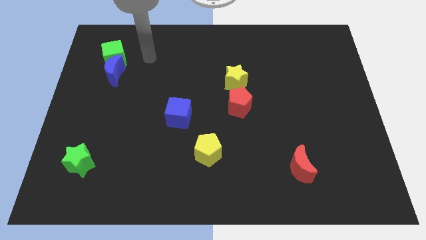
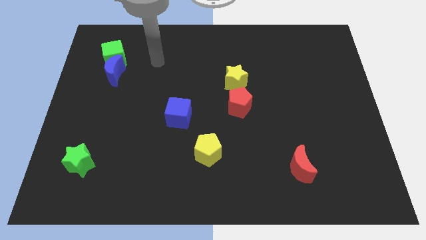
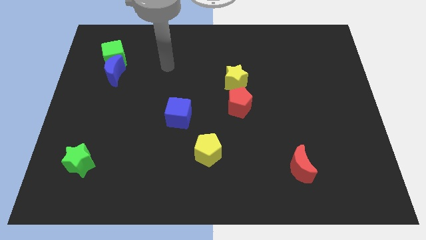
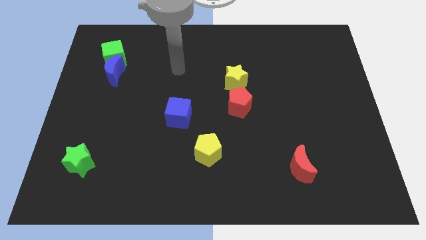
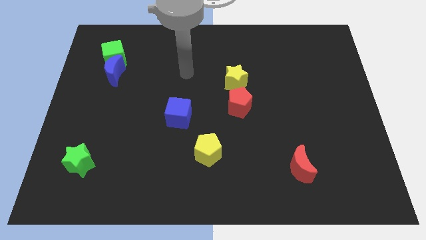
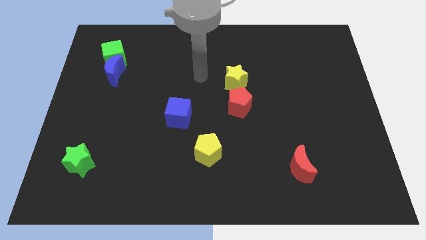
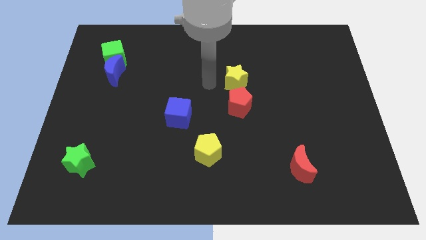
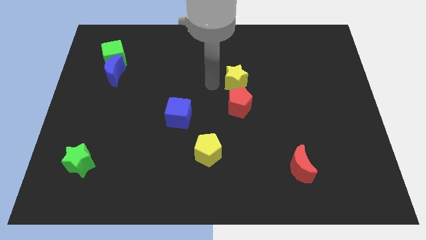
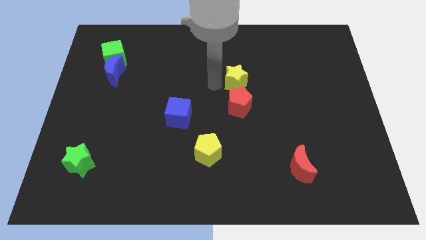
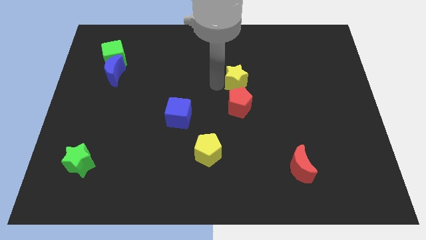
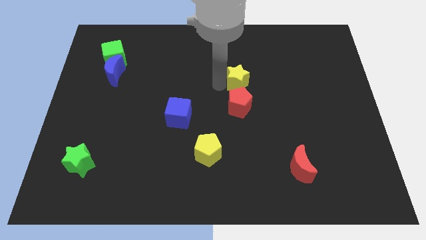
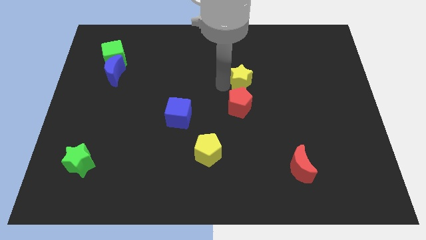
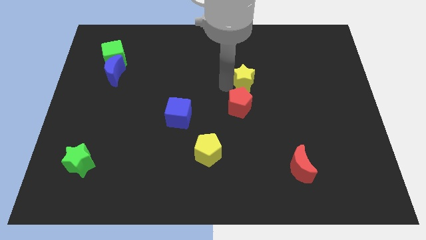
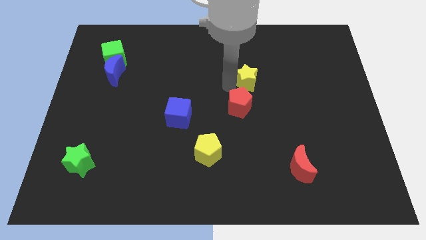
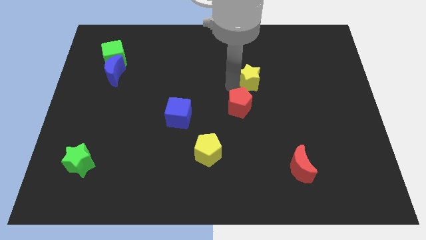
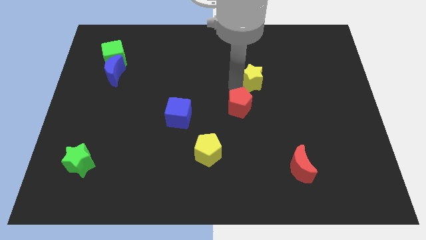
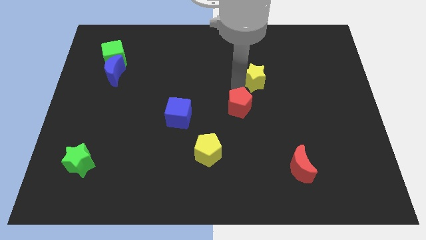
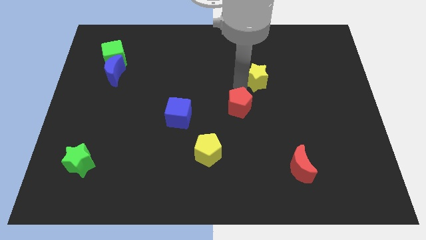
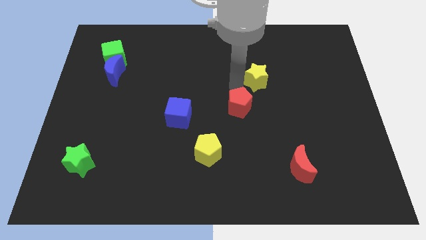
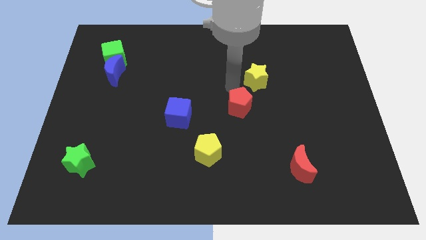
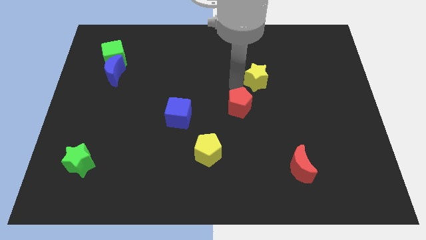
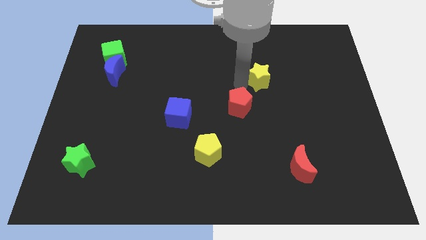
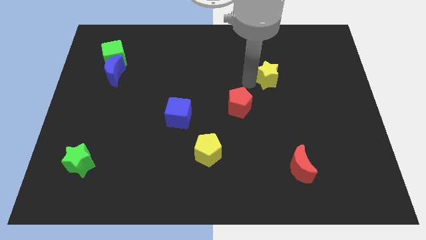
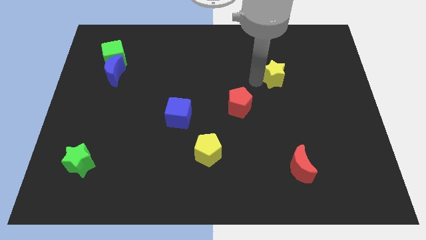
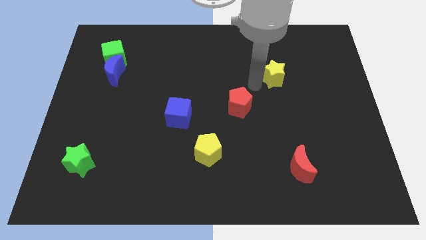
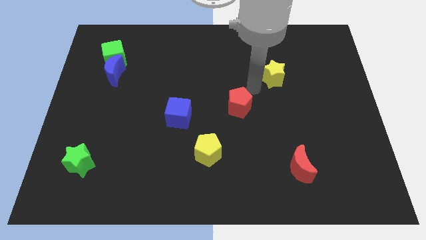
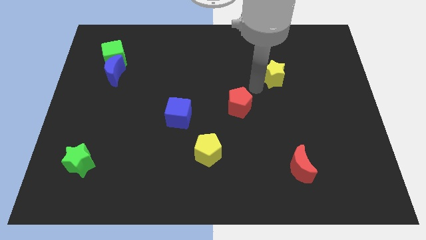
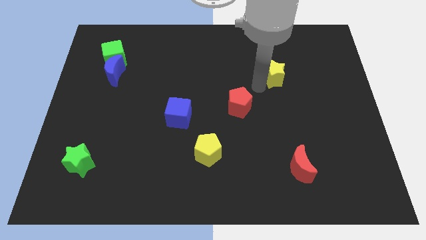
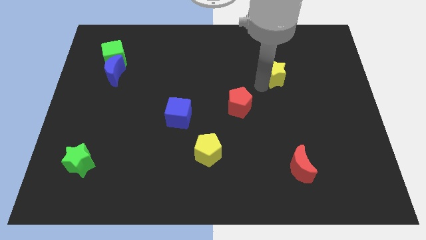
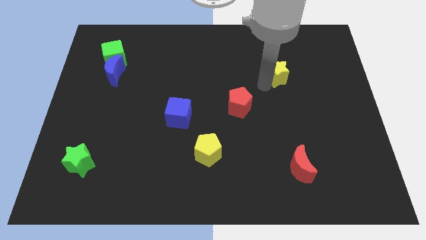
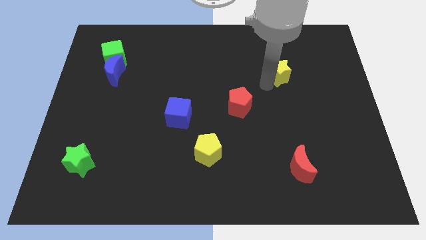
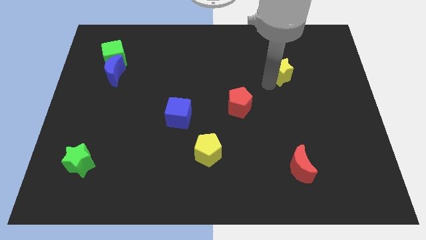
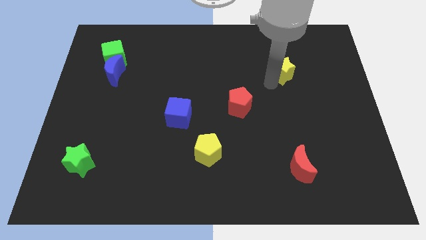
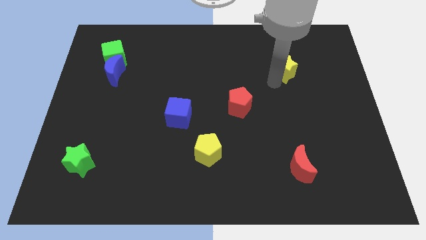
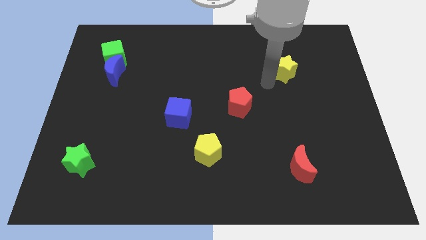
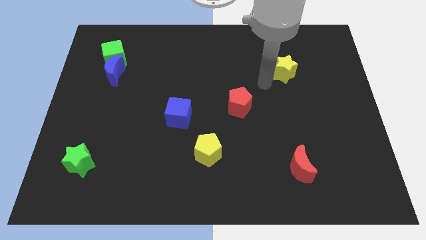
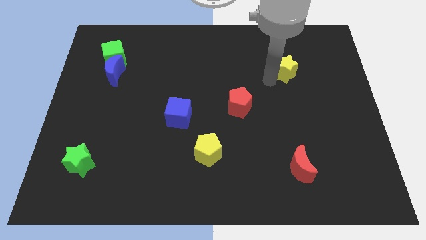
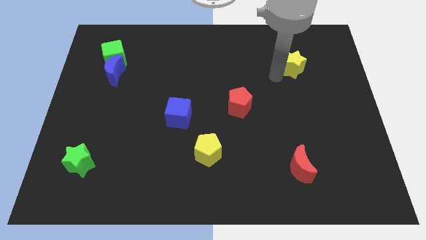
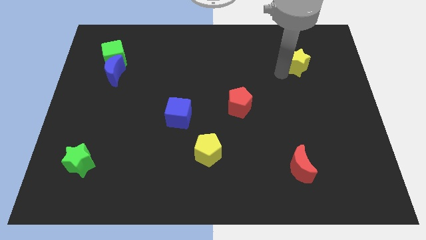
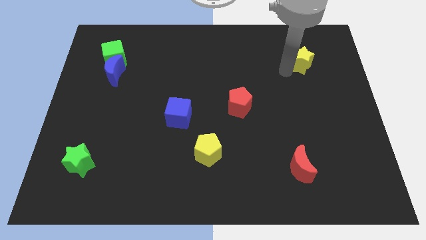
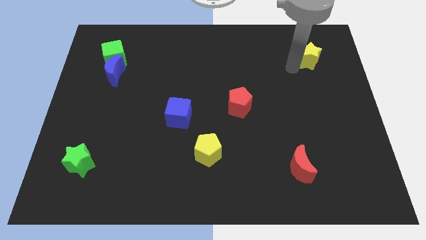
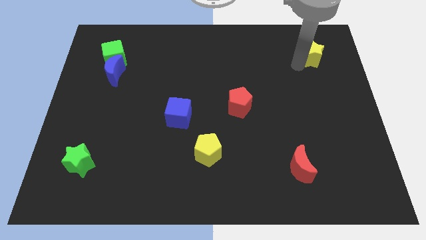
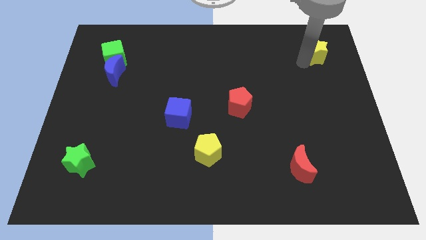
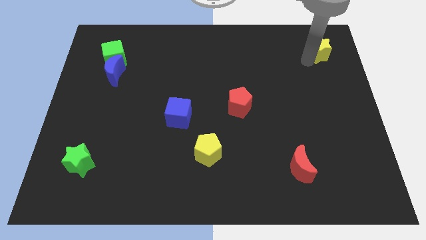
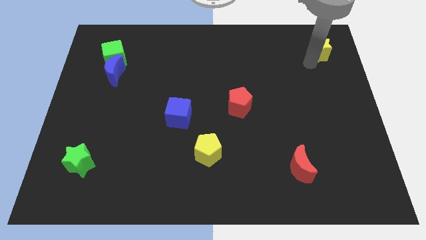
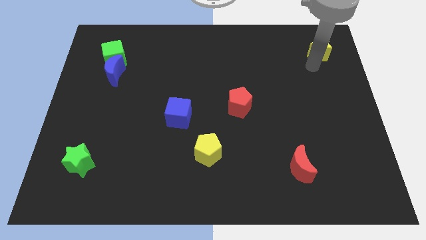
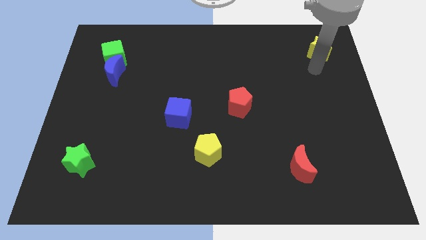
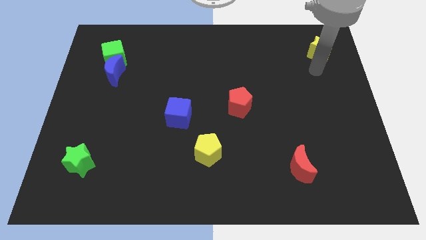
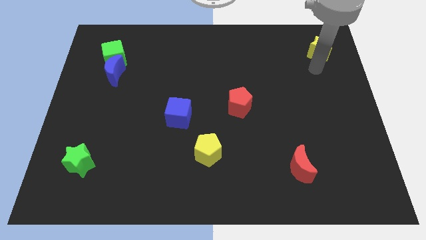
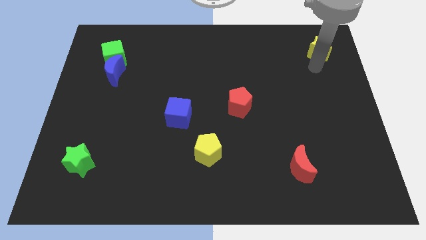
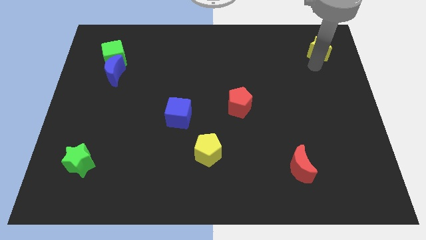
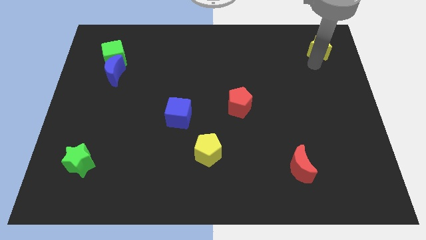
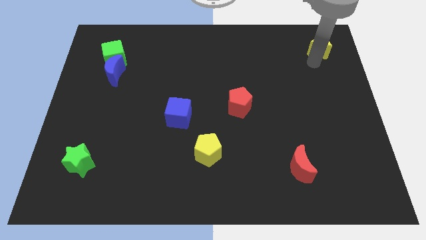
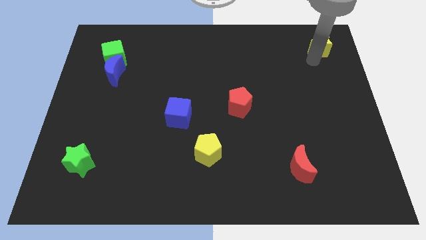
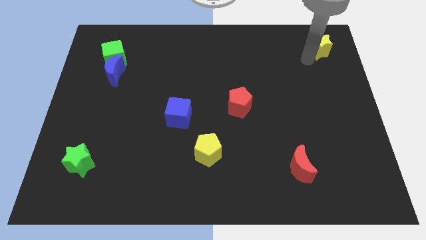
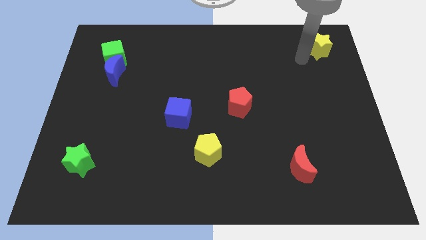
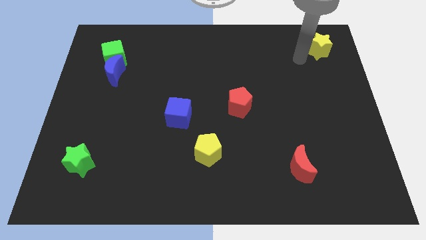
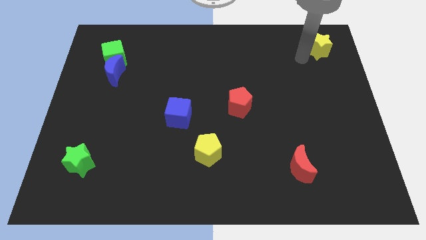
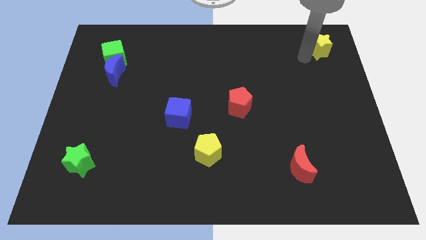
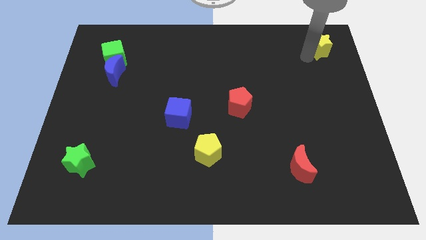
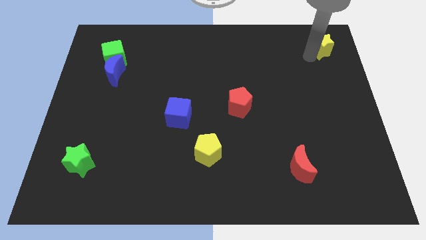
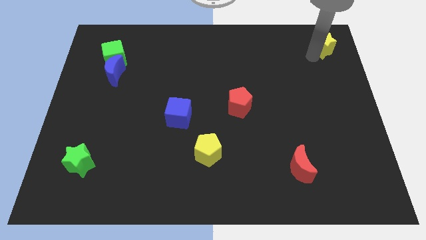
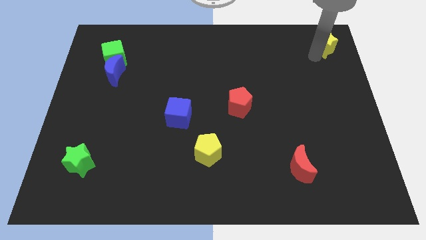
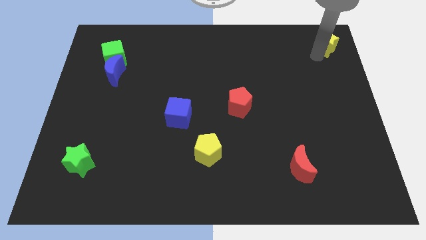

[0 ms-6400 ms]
move the yellow star to the top right corner
